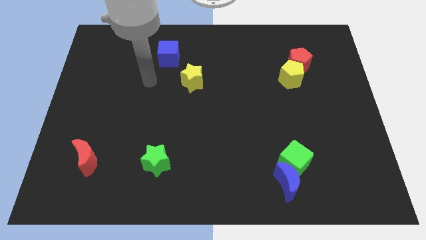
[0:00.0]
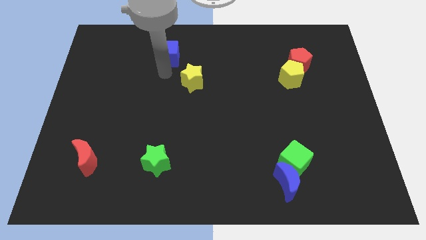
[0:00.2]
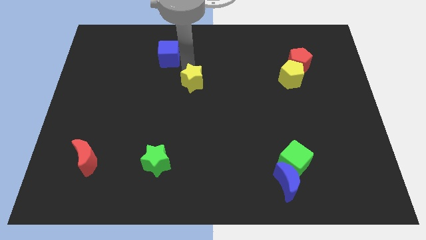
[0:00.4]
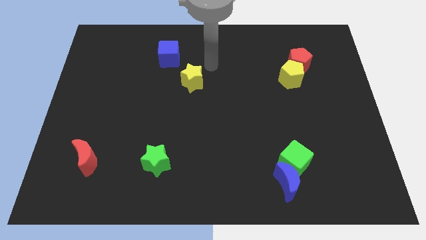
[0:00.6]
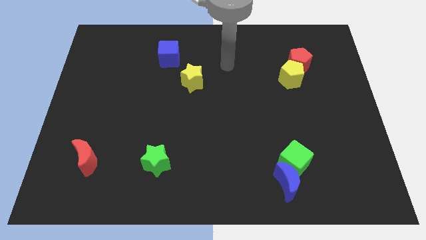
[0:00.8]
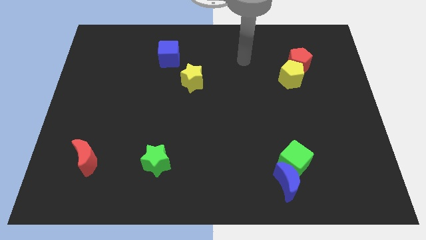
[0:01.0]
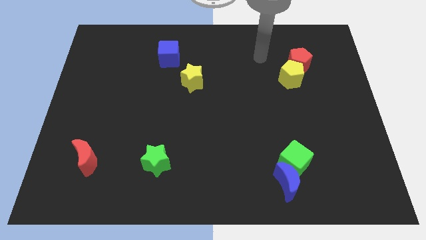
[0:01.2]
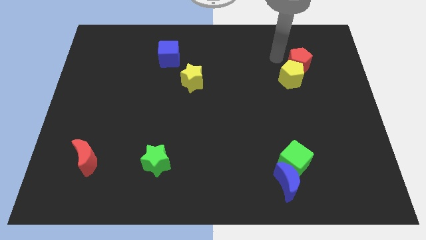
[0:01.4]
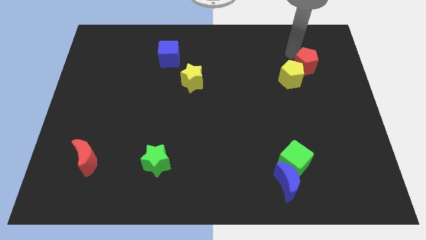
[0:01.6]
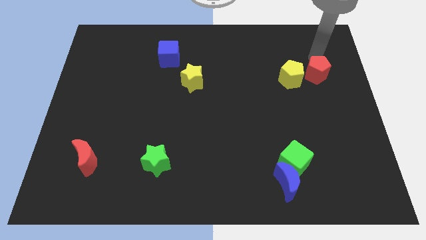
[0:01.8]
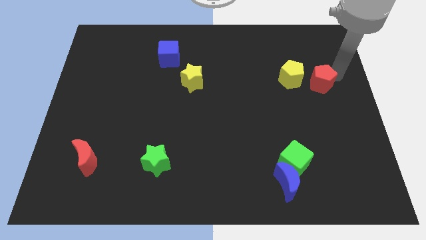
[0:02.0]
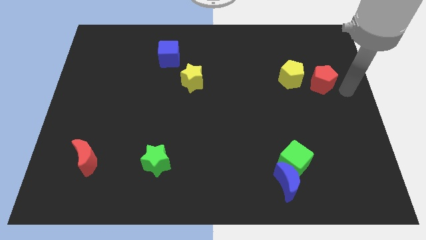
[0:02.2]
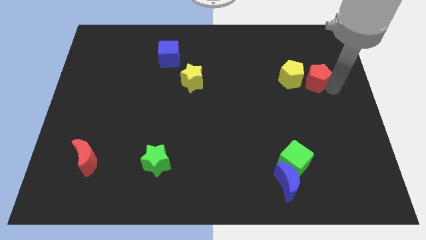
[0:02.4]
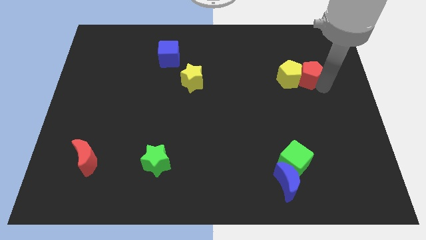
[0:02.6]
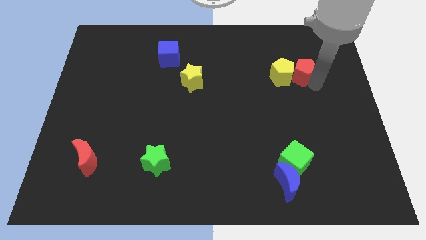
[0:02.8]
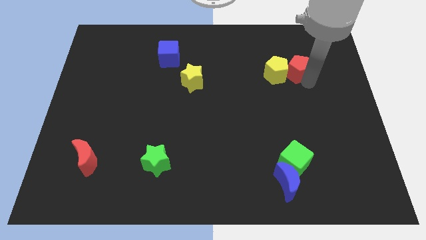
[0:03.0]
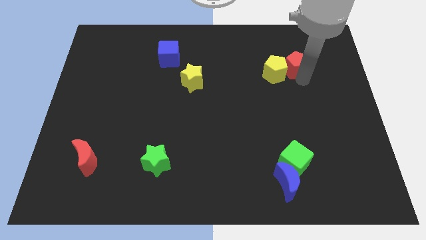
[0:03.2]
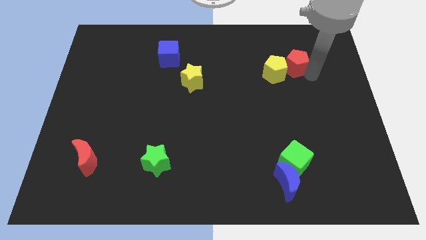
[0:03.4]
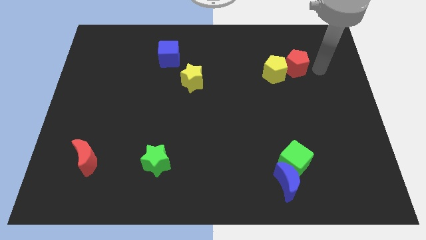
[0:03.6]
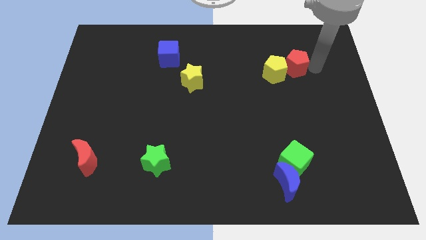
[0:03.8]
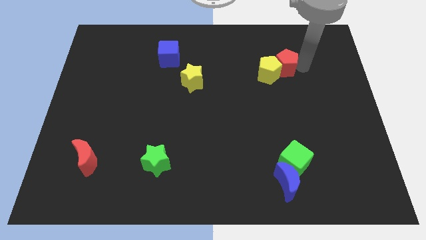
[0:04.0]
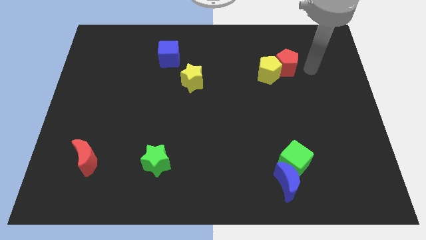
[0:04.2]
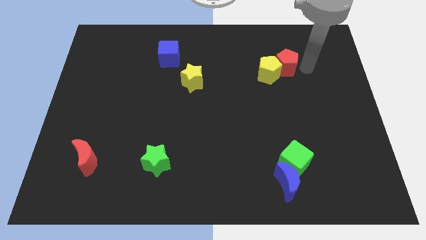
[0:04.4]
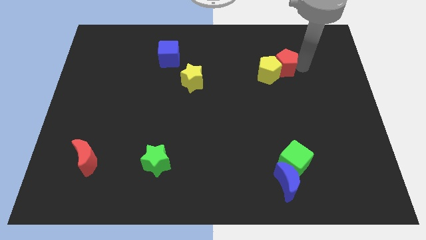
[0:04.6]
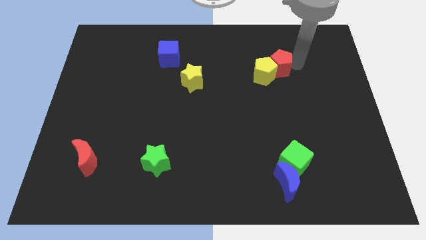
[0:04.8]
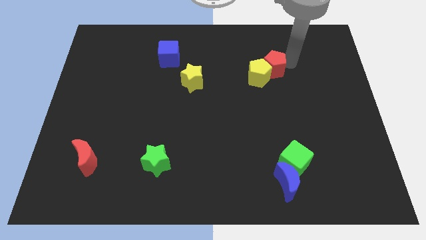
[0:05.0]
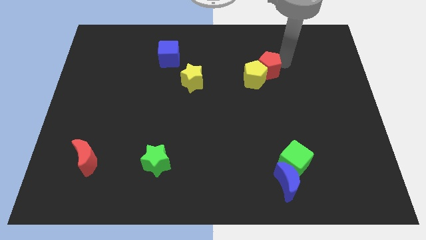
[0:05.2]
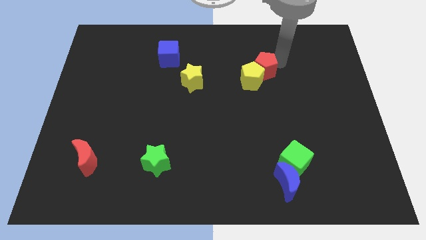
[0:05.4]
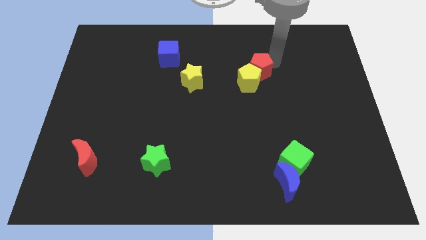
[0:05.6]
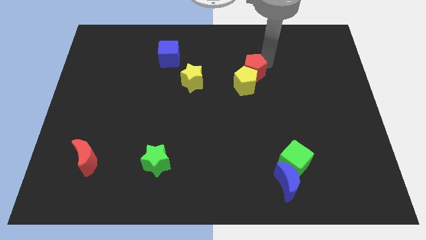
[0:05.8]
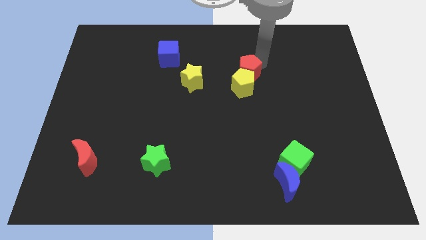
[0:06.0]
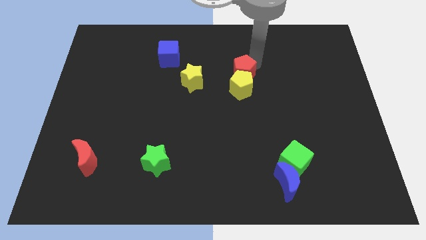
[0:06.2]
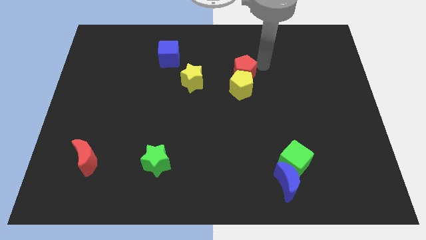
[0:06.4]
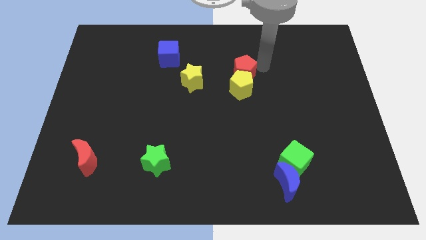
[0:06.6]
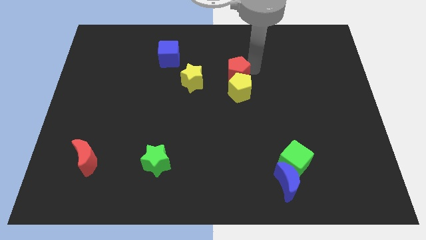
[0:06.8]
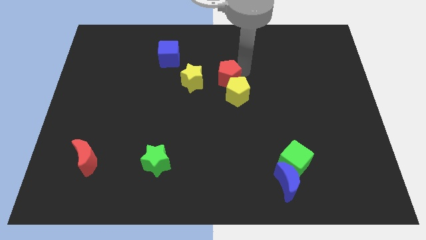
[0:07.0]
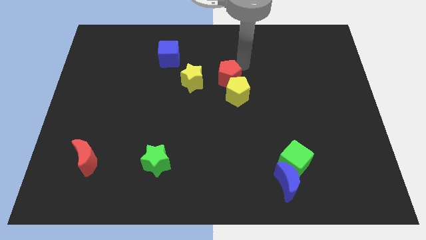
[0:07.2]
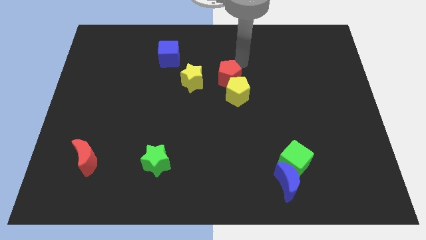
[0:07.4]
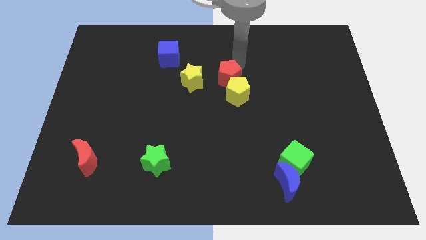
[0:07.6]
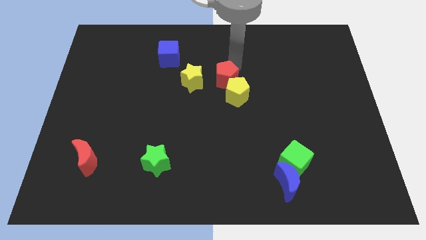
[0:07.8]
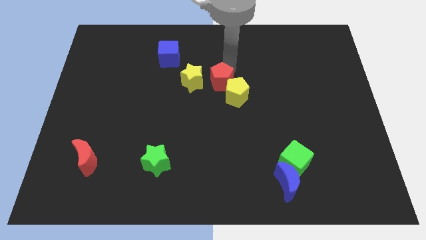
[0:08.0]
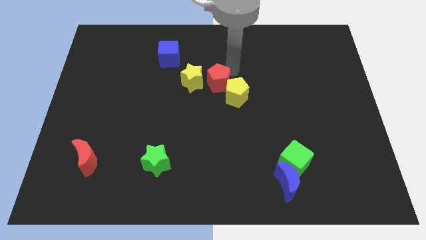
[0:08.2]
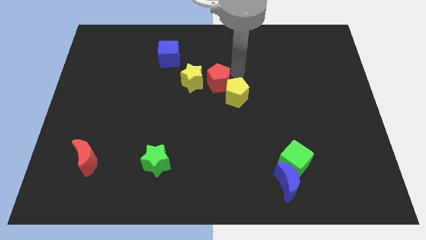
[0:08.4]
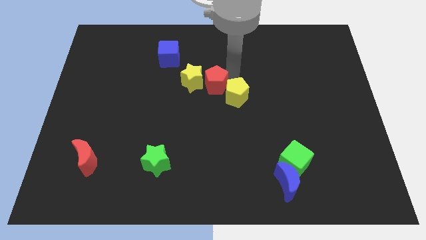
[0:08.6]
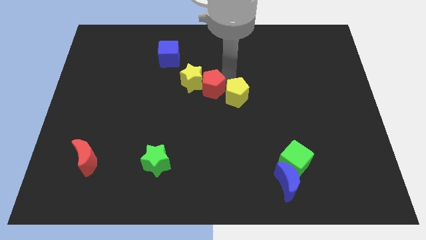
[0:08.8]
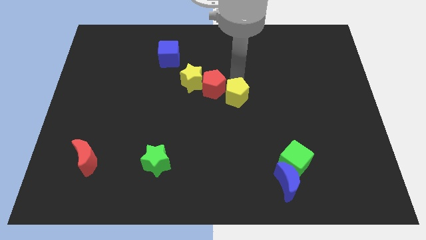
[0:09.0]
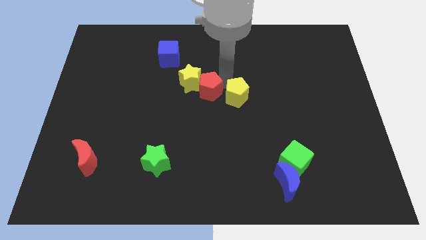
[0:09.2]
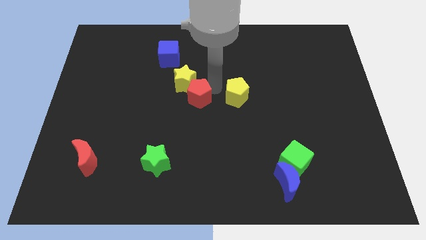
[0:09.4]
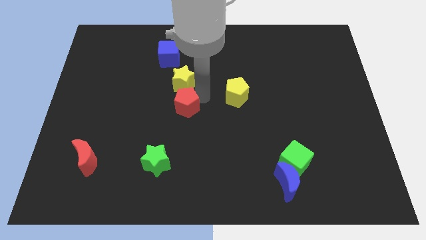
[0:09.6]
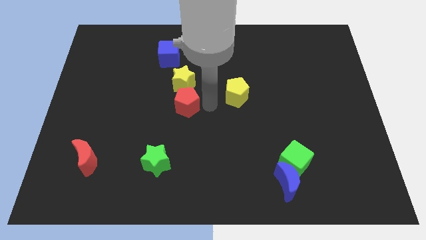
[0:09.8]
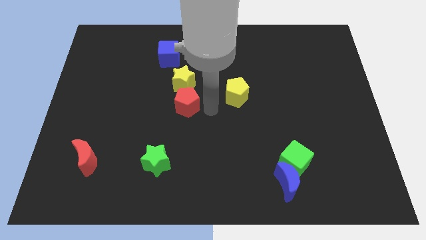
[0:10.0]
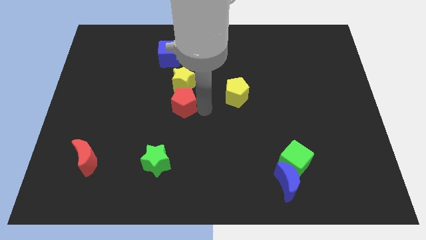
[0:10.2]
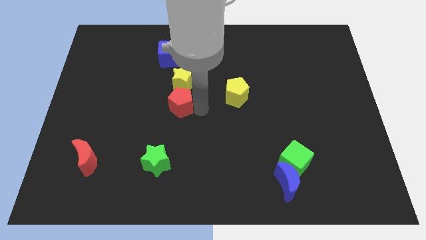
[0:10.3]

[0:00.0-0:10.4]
push the red pentagon to the bottom left side of the yellow star

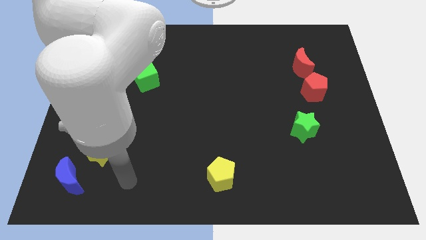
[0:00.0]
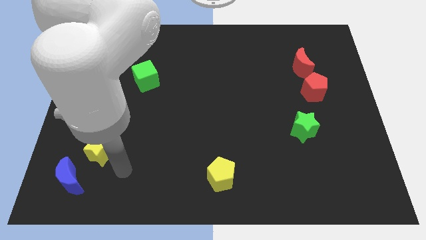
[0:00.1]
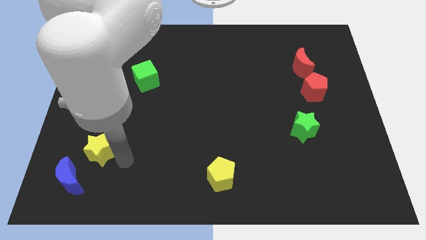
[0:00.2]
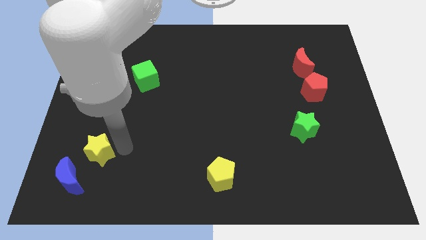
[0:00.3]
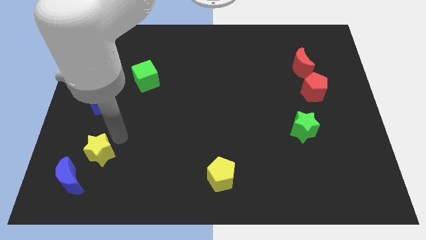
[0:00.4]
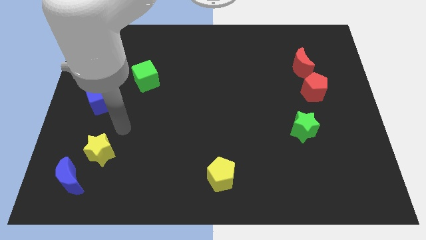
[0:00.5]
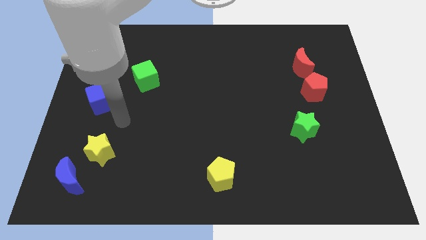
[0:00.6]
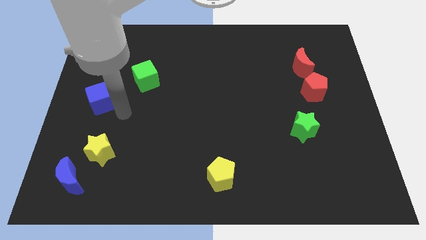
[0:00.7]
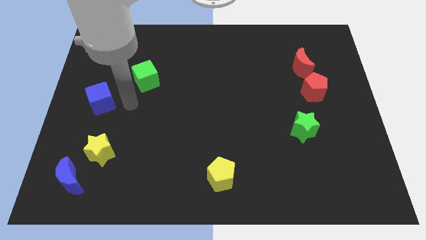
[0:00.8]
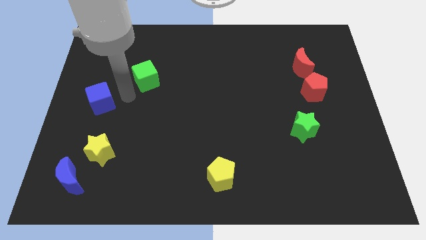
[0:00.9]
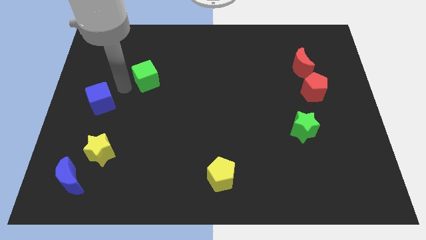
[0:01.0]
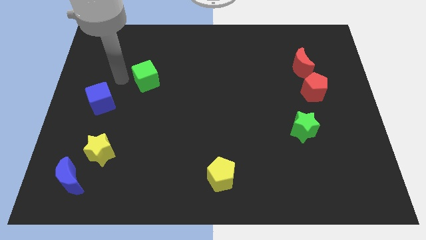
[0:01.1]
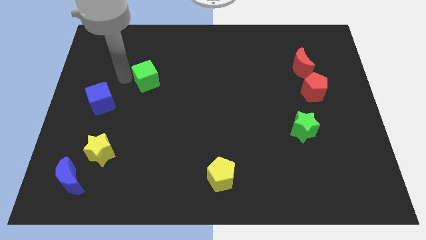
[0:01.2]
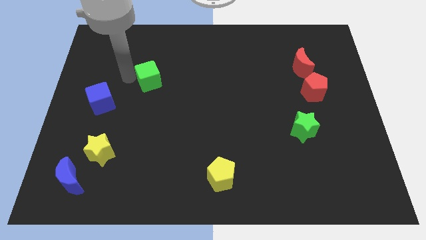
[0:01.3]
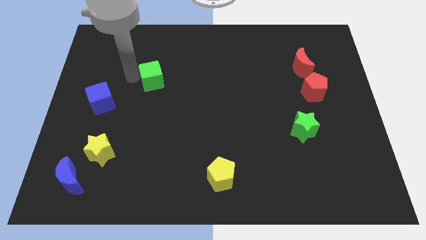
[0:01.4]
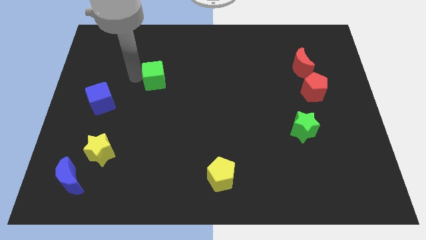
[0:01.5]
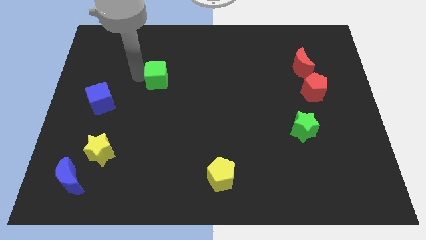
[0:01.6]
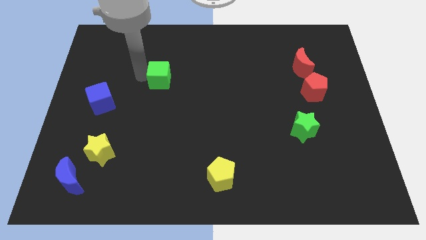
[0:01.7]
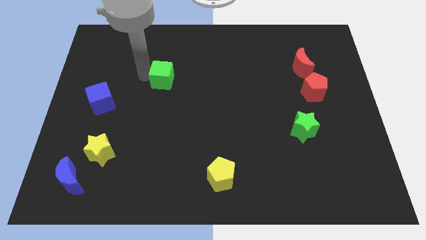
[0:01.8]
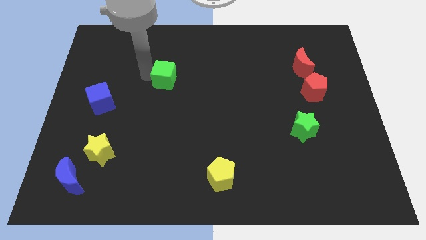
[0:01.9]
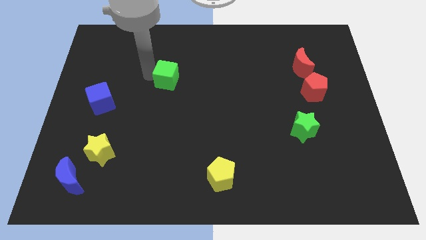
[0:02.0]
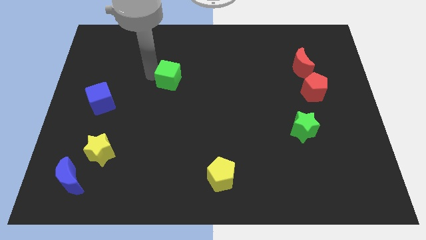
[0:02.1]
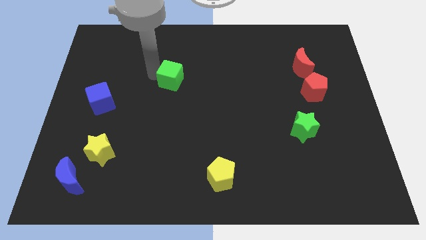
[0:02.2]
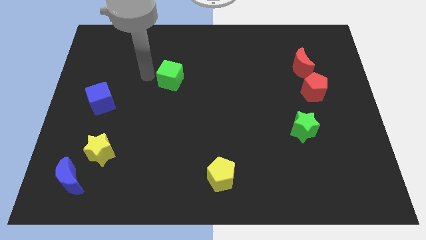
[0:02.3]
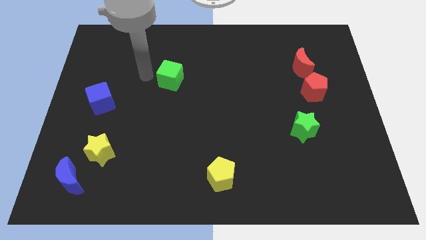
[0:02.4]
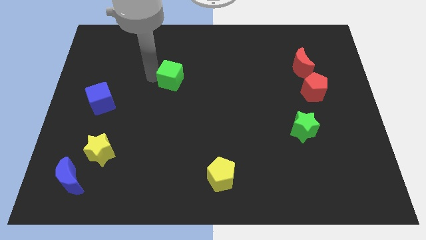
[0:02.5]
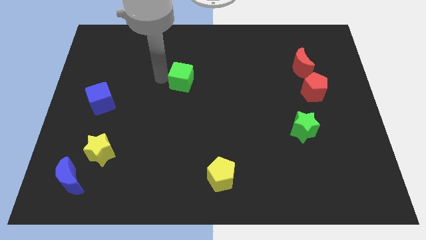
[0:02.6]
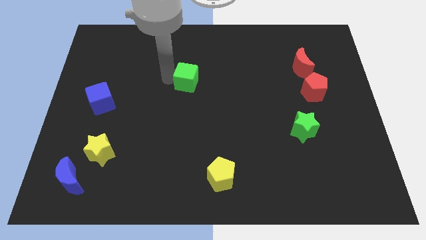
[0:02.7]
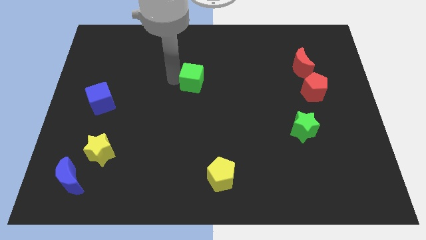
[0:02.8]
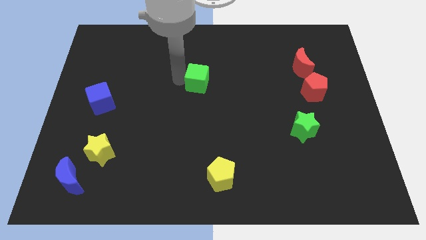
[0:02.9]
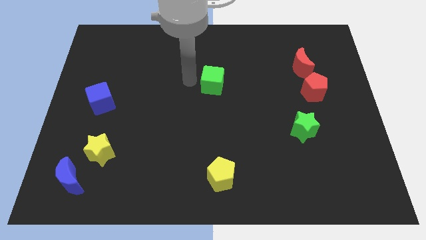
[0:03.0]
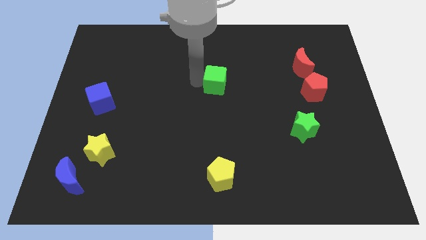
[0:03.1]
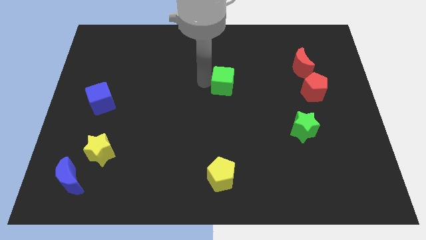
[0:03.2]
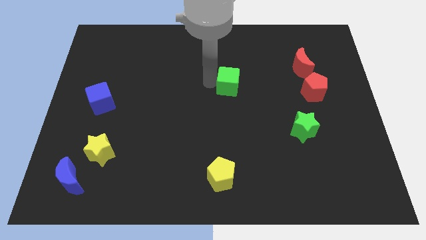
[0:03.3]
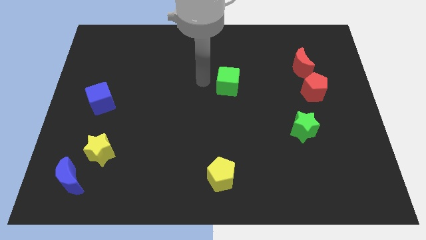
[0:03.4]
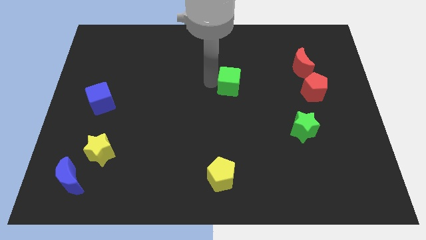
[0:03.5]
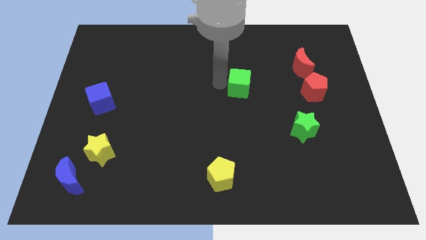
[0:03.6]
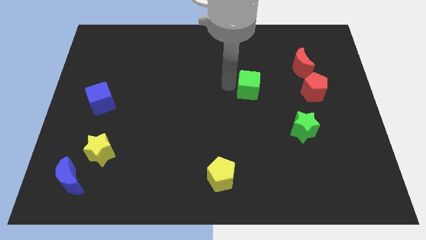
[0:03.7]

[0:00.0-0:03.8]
slide the green cube to the left of the red pentagon
